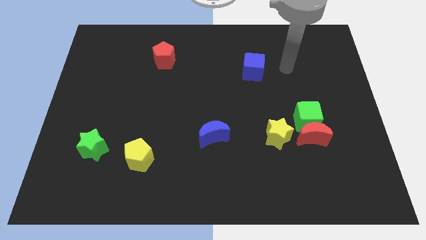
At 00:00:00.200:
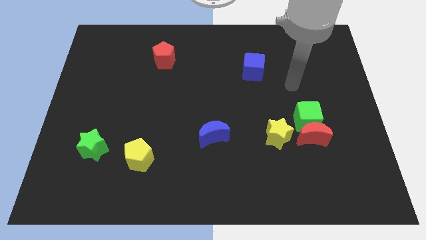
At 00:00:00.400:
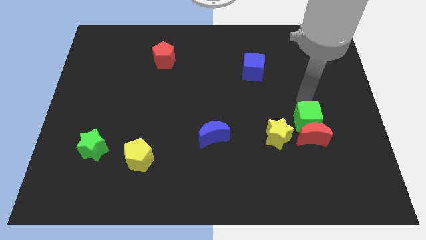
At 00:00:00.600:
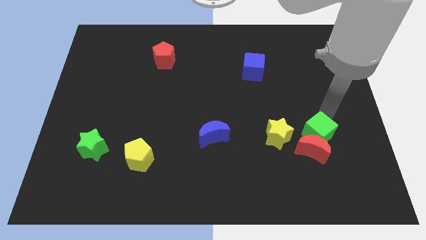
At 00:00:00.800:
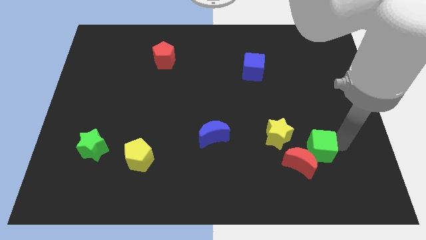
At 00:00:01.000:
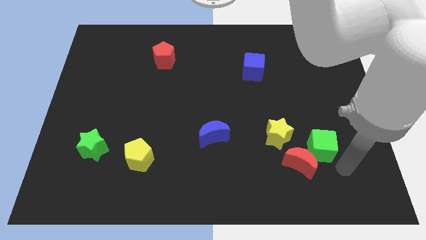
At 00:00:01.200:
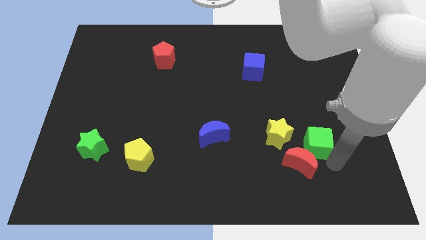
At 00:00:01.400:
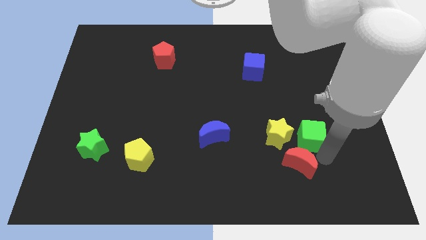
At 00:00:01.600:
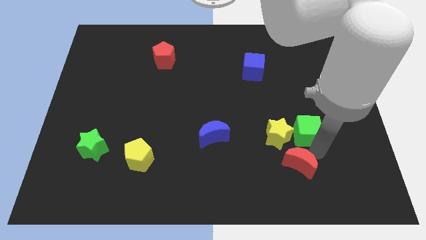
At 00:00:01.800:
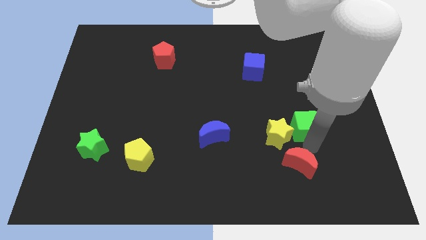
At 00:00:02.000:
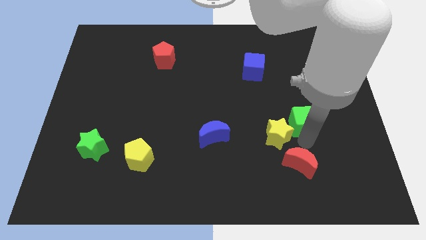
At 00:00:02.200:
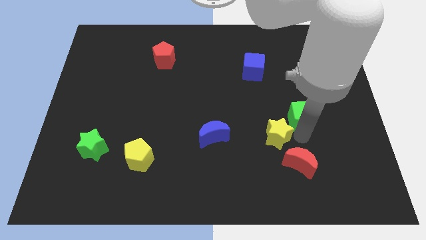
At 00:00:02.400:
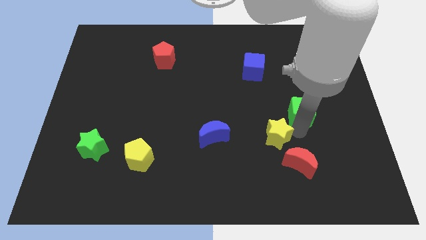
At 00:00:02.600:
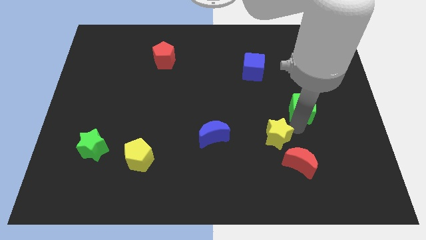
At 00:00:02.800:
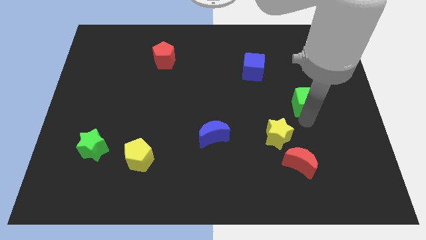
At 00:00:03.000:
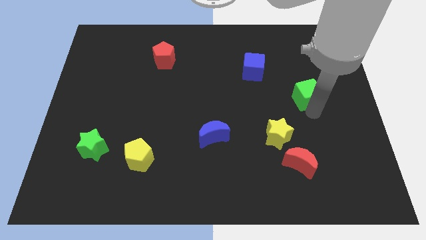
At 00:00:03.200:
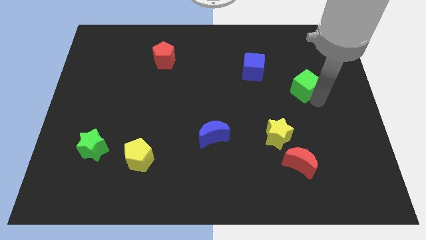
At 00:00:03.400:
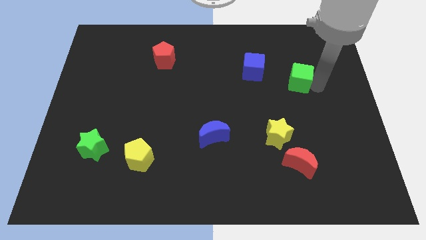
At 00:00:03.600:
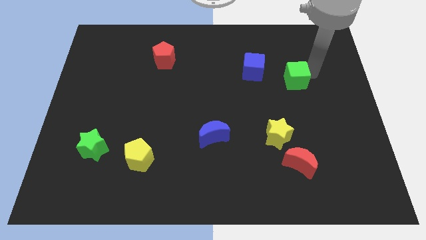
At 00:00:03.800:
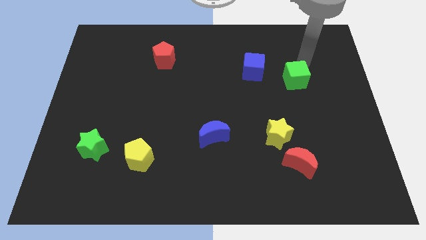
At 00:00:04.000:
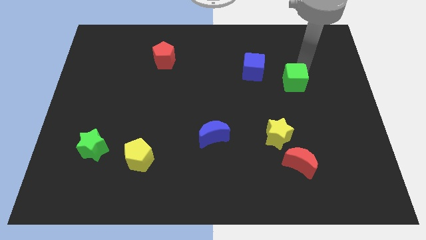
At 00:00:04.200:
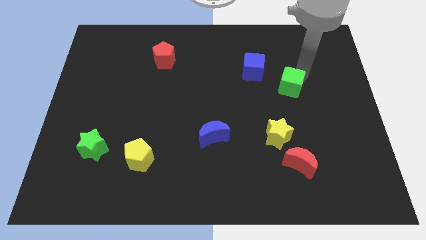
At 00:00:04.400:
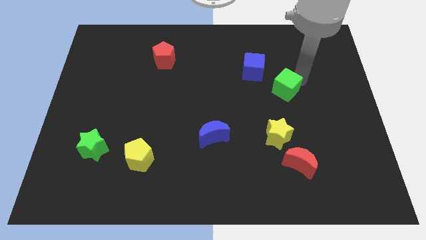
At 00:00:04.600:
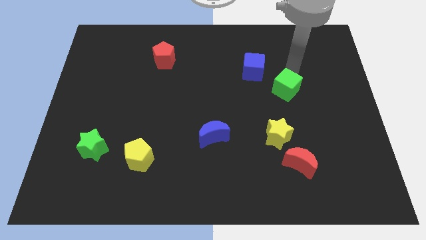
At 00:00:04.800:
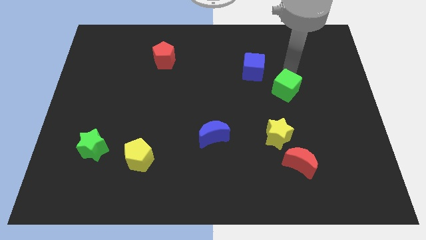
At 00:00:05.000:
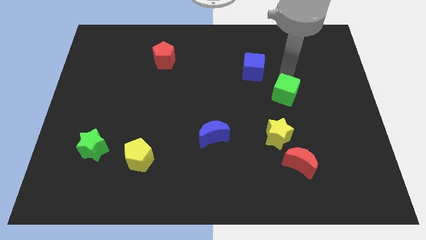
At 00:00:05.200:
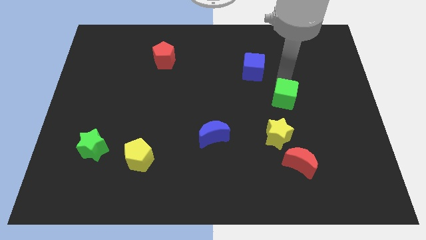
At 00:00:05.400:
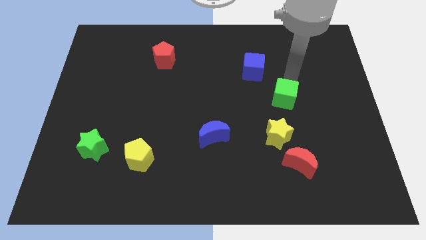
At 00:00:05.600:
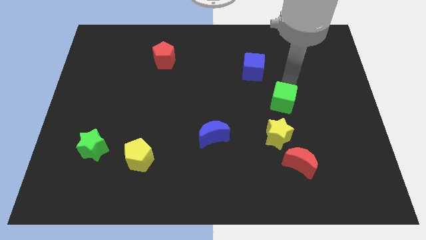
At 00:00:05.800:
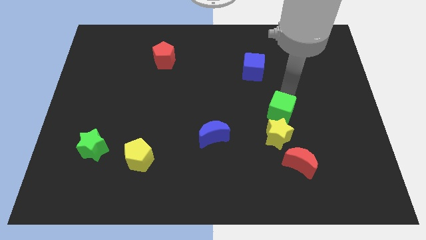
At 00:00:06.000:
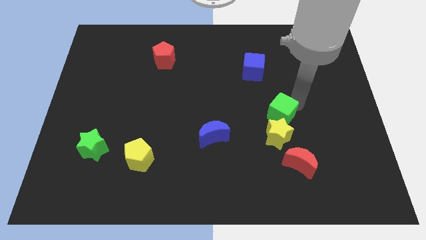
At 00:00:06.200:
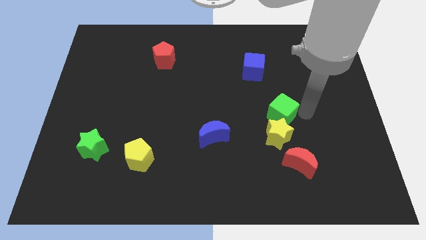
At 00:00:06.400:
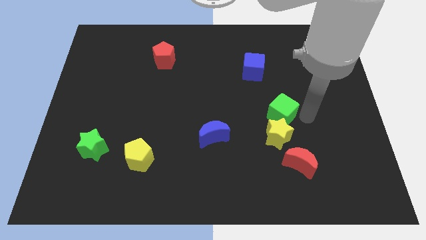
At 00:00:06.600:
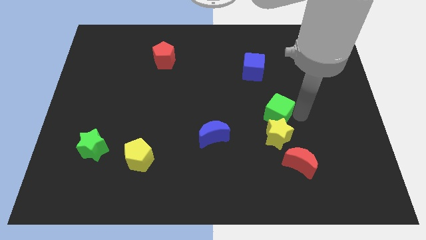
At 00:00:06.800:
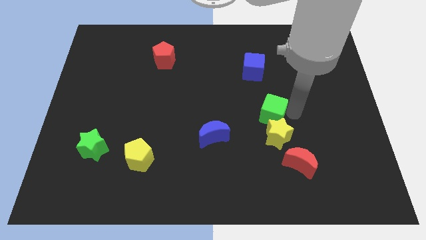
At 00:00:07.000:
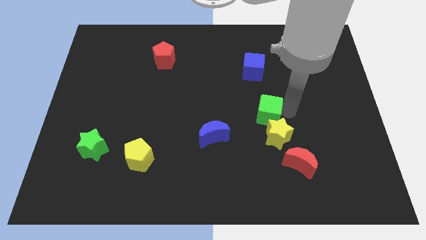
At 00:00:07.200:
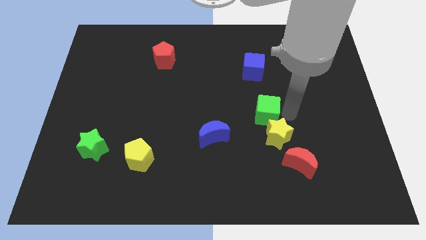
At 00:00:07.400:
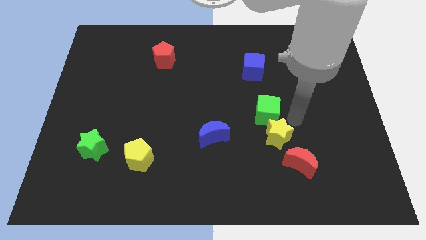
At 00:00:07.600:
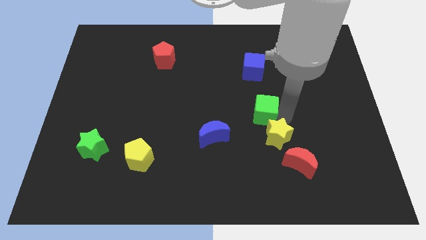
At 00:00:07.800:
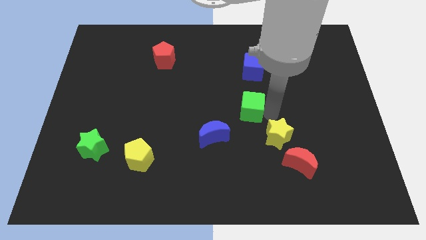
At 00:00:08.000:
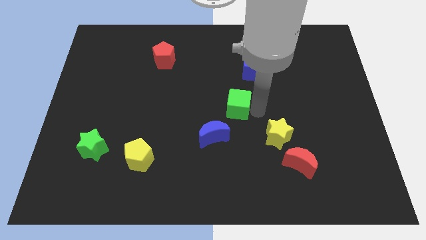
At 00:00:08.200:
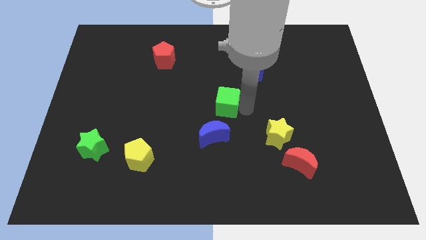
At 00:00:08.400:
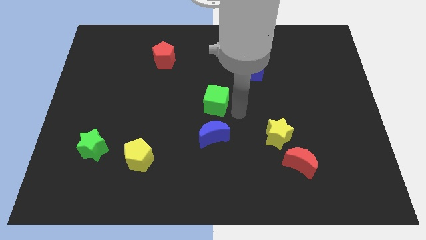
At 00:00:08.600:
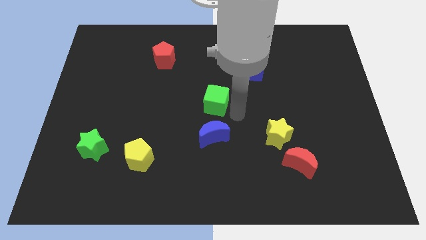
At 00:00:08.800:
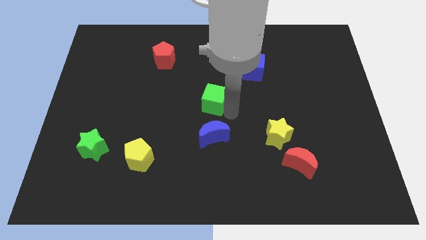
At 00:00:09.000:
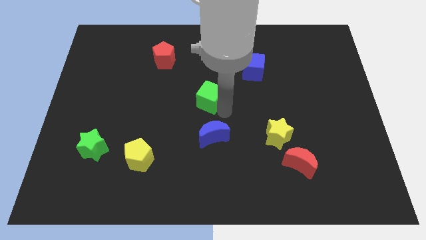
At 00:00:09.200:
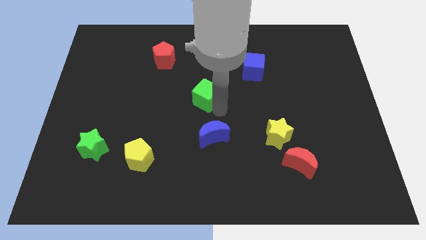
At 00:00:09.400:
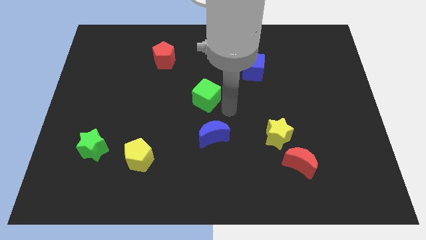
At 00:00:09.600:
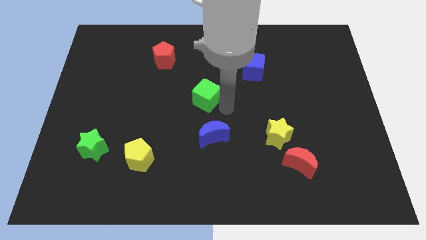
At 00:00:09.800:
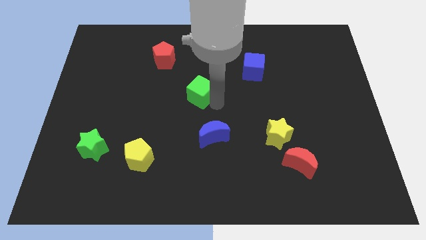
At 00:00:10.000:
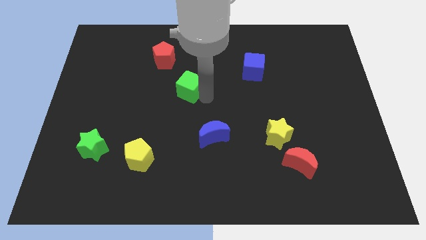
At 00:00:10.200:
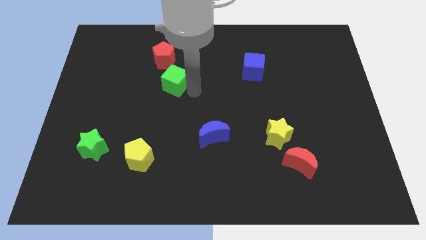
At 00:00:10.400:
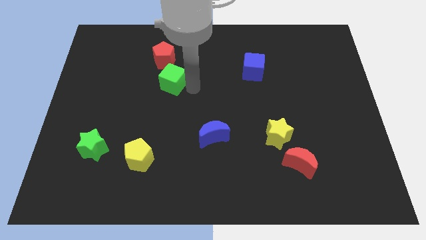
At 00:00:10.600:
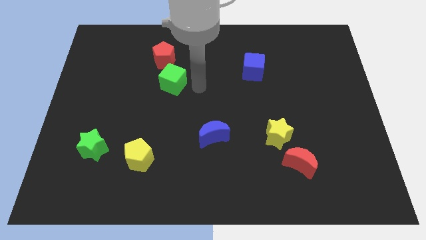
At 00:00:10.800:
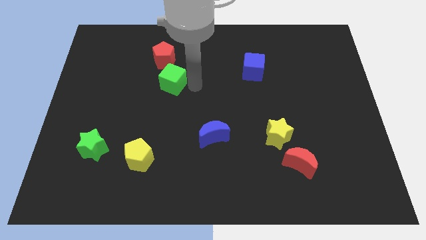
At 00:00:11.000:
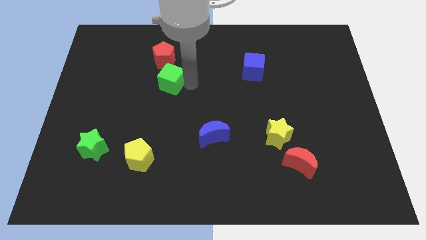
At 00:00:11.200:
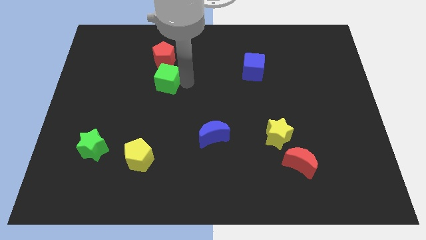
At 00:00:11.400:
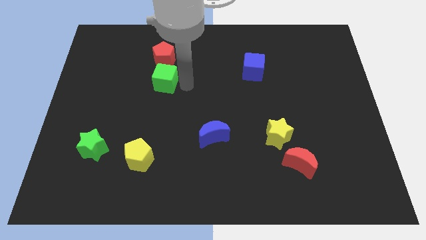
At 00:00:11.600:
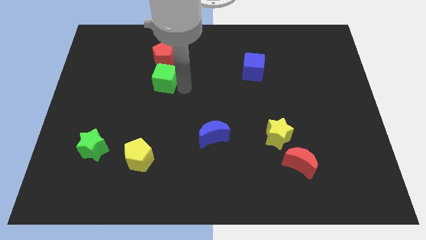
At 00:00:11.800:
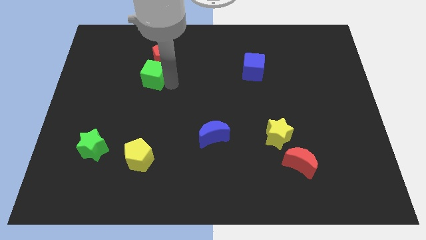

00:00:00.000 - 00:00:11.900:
push the green cube to the bottom left of the red pentagon

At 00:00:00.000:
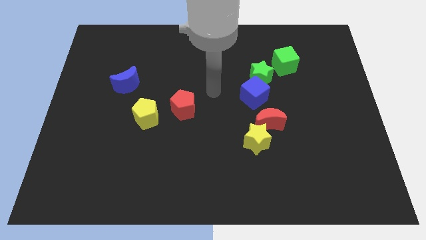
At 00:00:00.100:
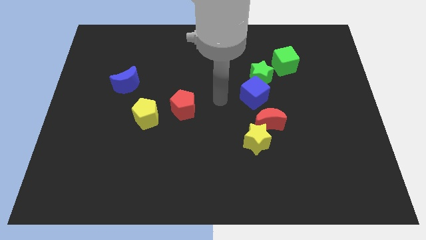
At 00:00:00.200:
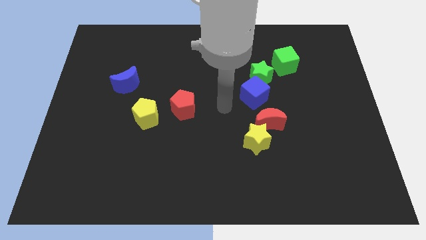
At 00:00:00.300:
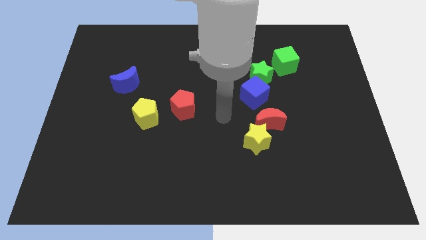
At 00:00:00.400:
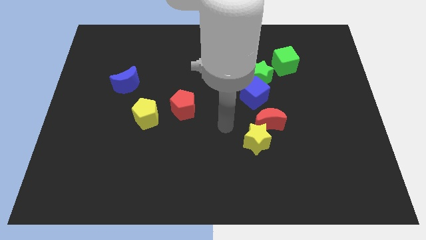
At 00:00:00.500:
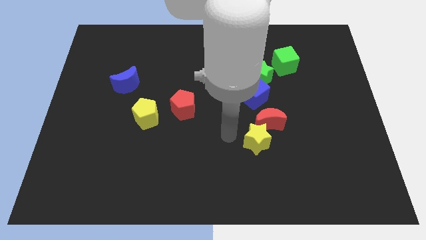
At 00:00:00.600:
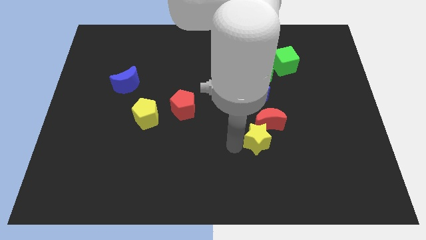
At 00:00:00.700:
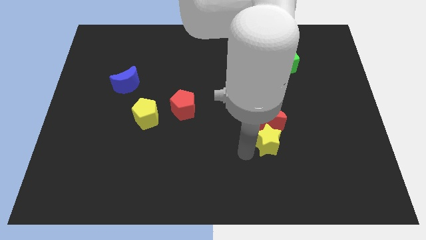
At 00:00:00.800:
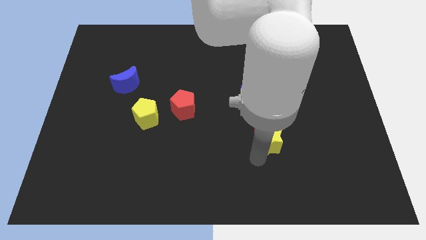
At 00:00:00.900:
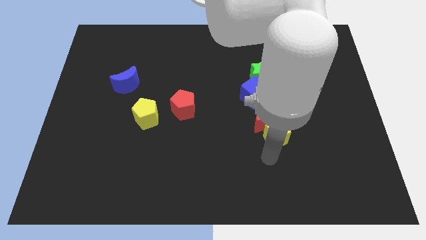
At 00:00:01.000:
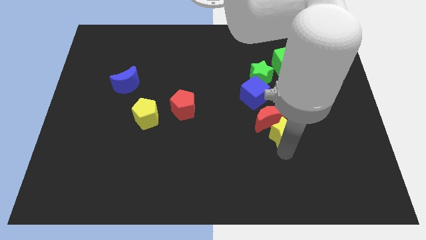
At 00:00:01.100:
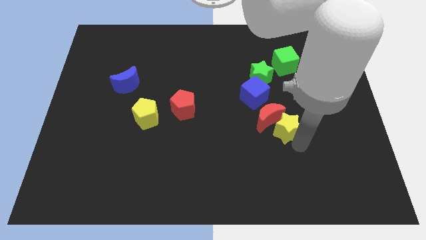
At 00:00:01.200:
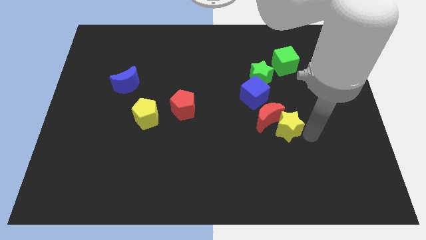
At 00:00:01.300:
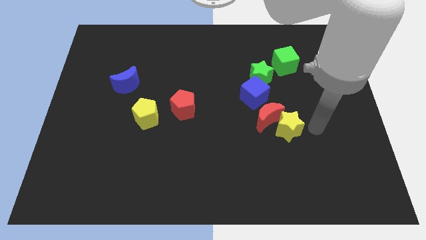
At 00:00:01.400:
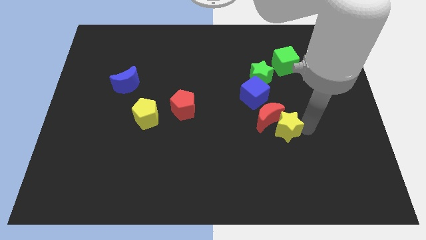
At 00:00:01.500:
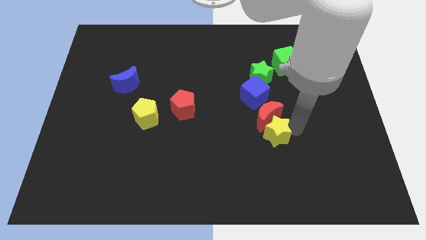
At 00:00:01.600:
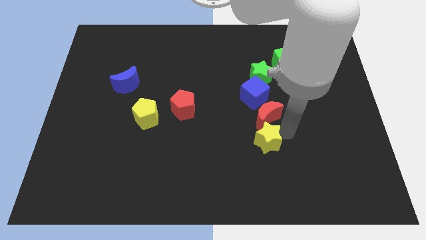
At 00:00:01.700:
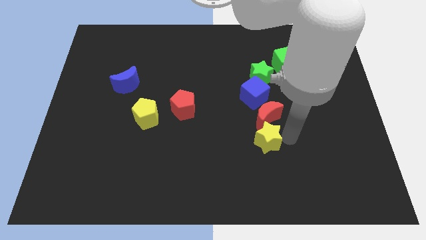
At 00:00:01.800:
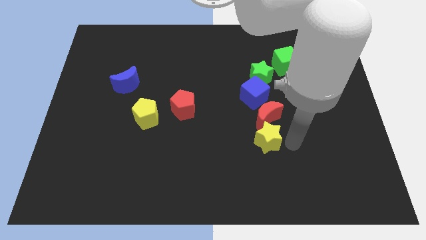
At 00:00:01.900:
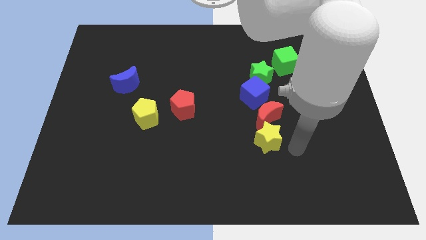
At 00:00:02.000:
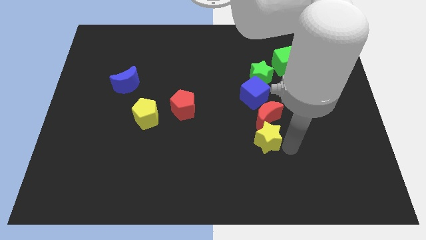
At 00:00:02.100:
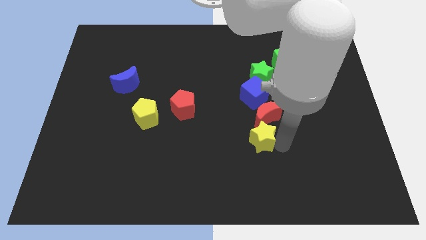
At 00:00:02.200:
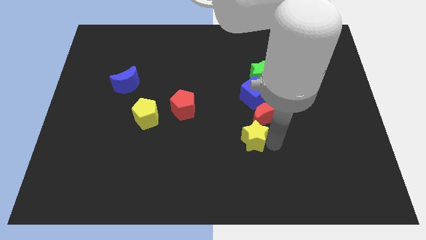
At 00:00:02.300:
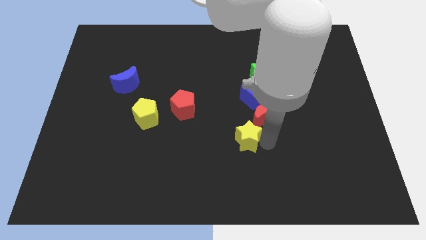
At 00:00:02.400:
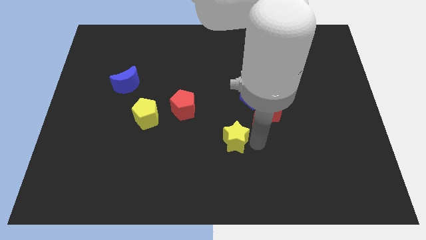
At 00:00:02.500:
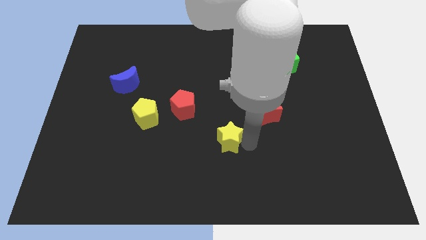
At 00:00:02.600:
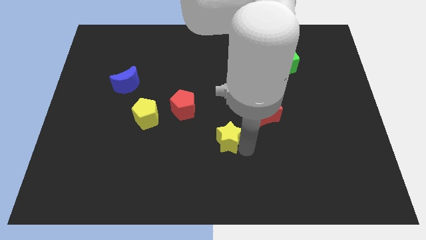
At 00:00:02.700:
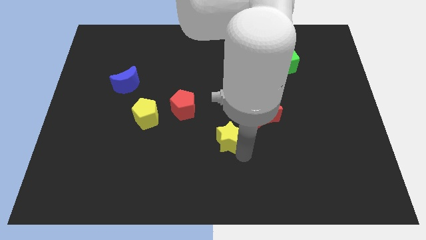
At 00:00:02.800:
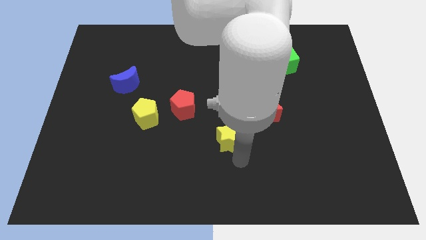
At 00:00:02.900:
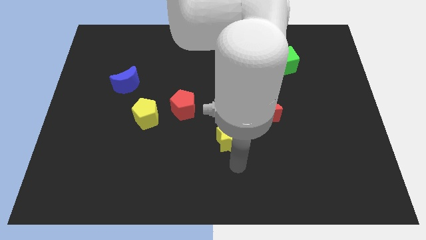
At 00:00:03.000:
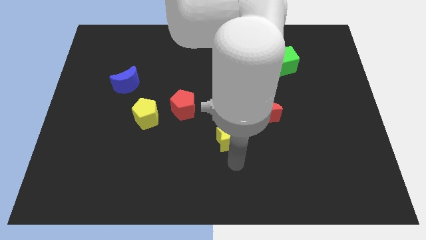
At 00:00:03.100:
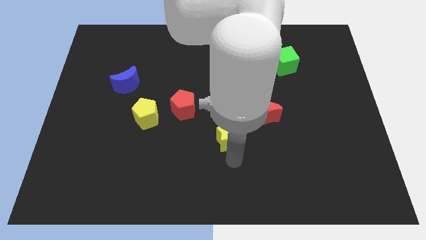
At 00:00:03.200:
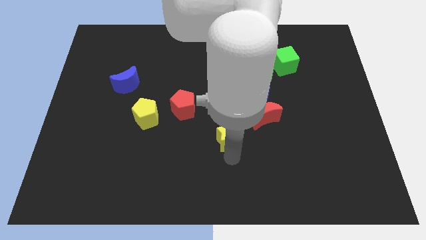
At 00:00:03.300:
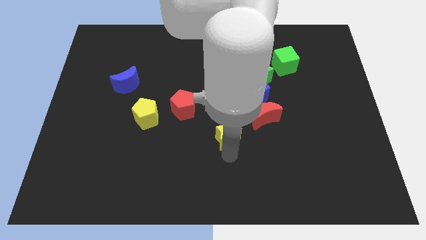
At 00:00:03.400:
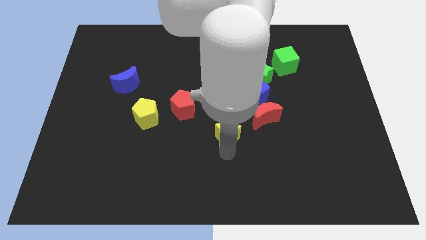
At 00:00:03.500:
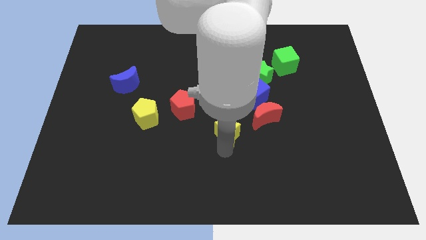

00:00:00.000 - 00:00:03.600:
put the yellow star to the left of the red moon
